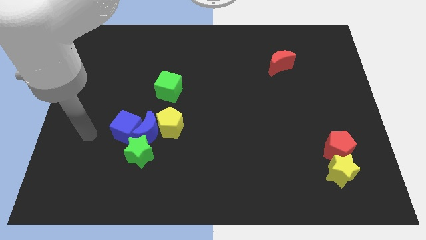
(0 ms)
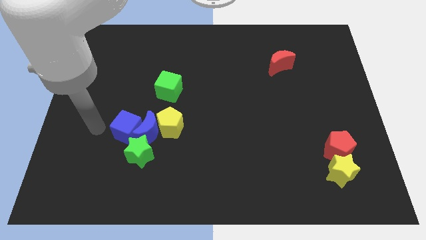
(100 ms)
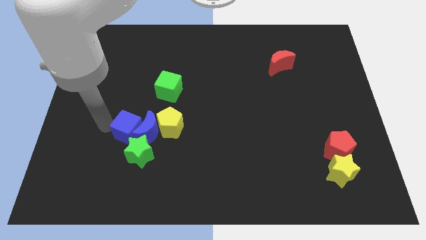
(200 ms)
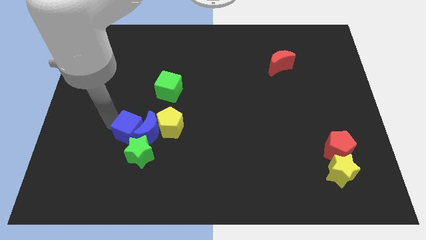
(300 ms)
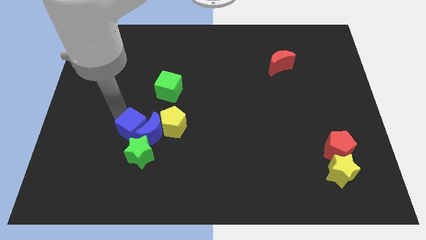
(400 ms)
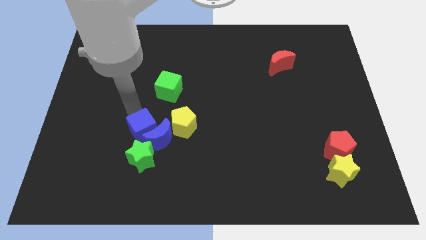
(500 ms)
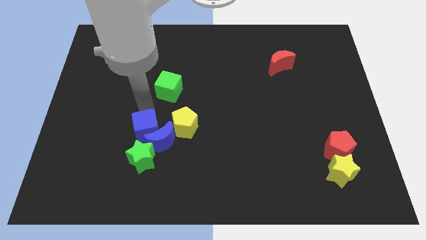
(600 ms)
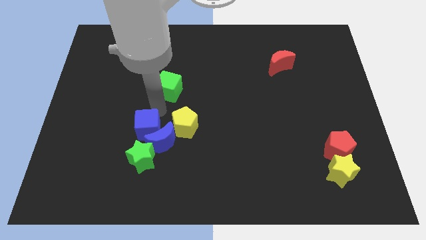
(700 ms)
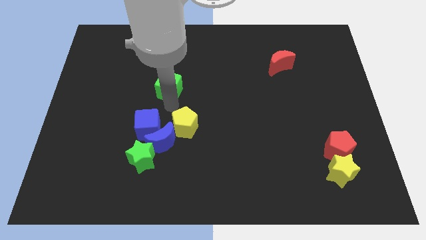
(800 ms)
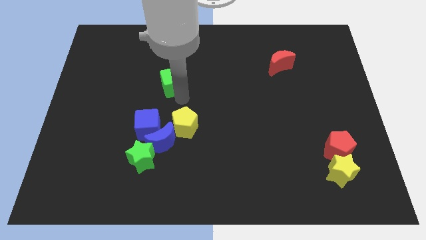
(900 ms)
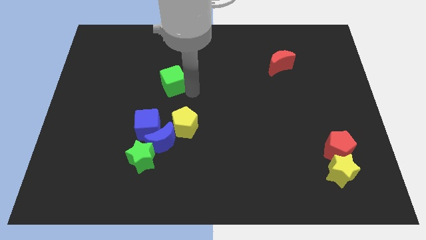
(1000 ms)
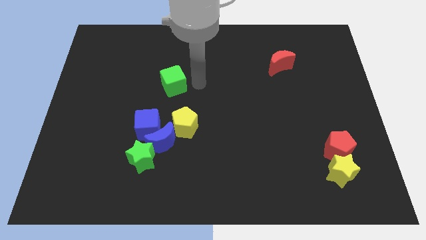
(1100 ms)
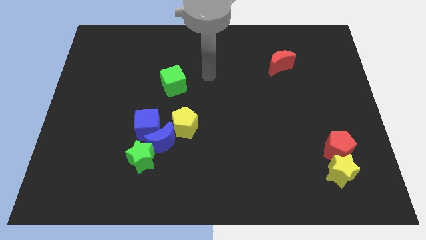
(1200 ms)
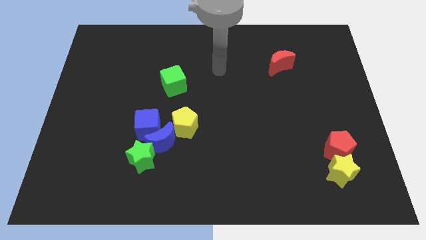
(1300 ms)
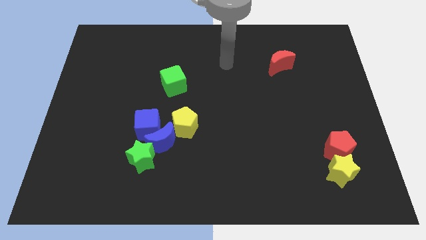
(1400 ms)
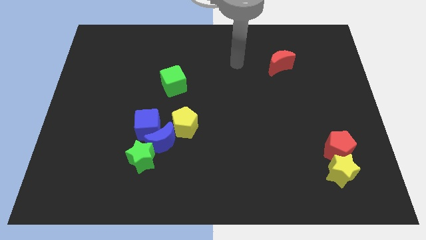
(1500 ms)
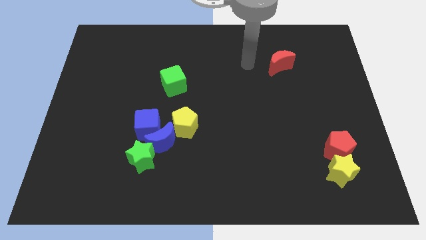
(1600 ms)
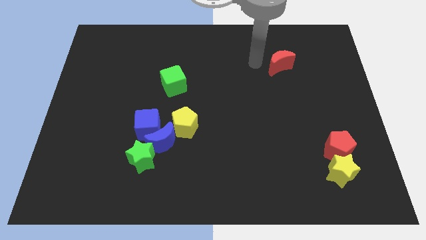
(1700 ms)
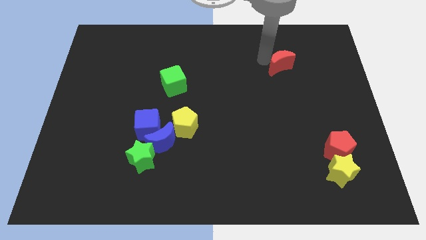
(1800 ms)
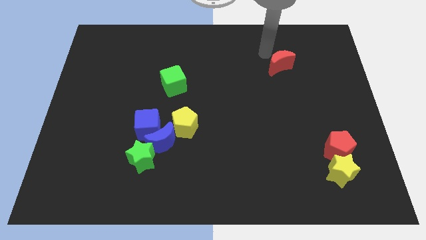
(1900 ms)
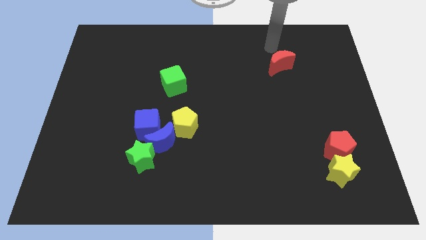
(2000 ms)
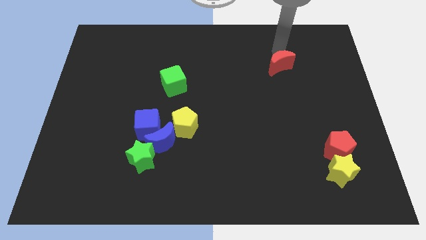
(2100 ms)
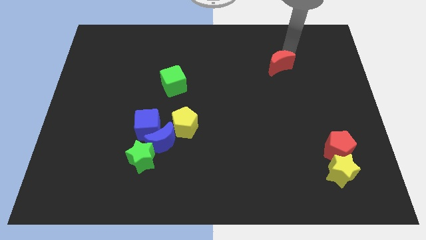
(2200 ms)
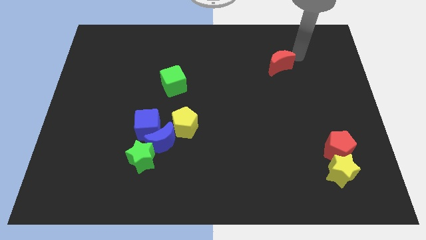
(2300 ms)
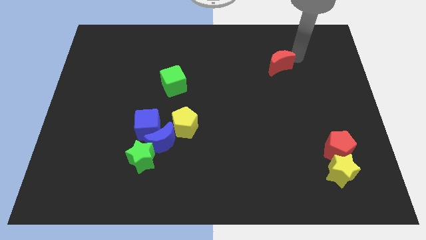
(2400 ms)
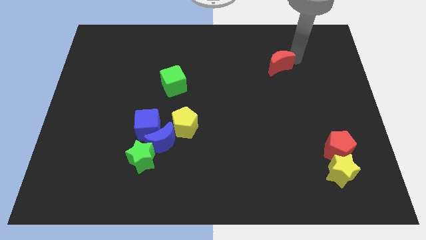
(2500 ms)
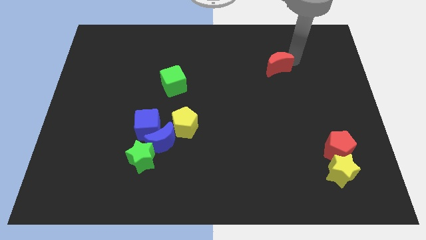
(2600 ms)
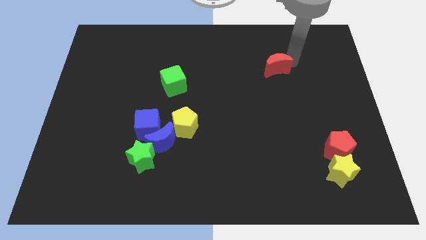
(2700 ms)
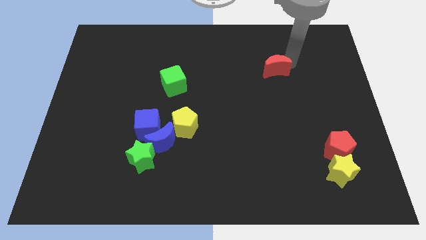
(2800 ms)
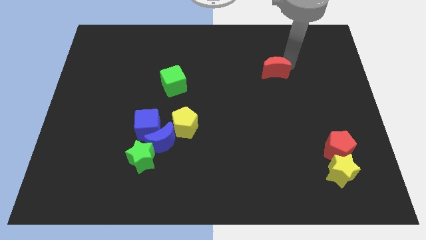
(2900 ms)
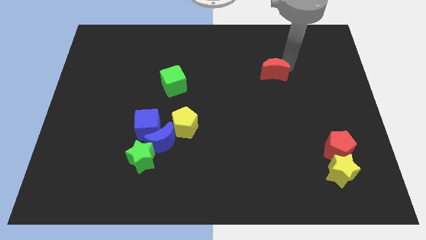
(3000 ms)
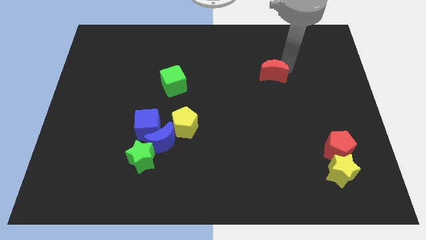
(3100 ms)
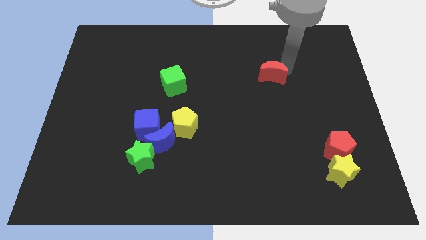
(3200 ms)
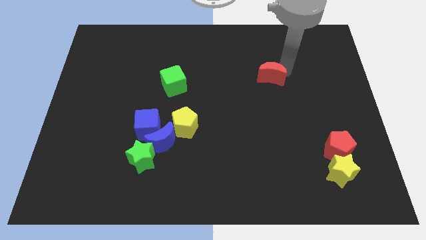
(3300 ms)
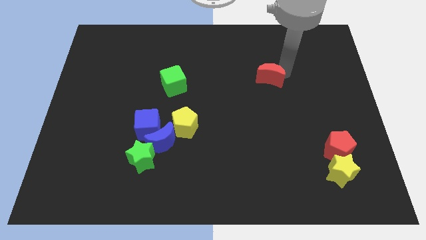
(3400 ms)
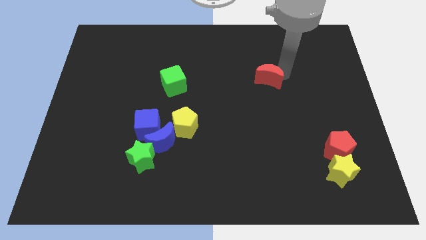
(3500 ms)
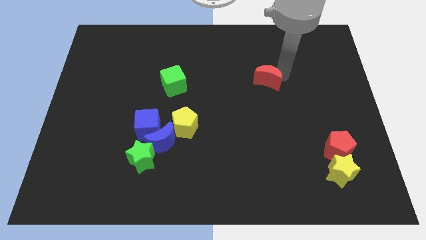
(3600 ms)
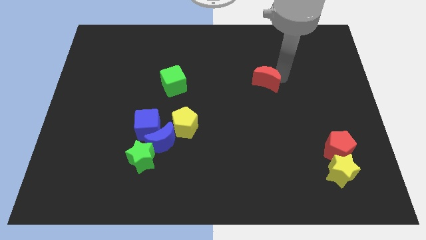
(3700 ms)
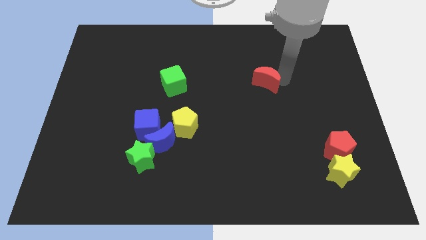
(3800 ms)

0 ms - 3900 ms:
slightly push the red moon downwards and to the left

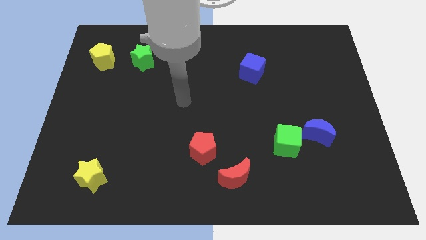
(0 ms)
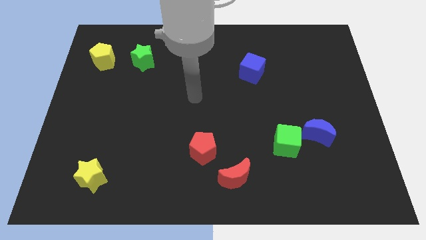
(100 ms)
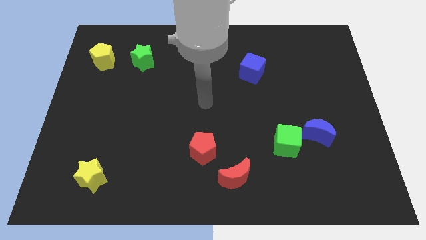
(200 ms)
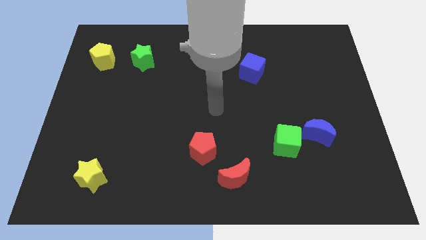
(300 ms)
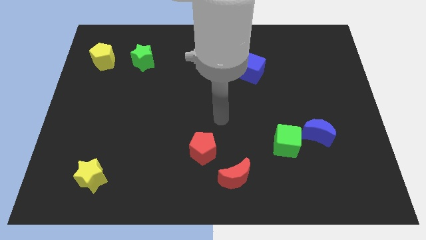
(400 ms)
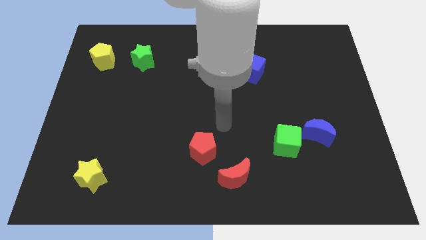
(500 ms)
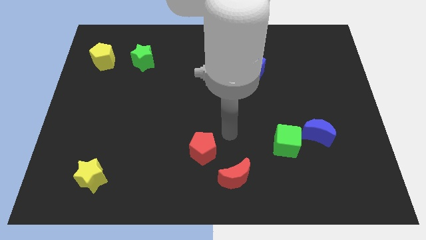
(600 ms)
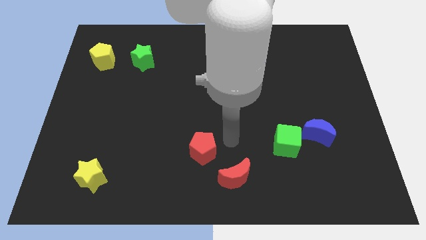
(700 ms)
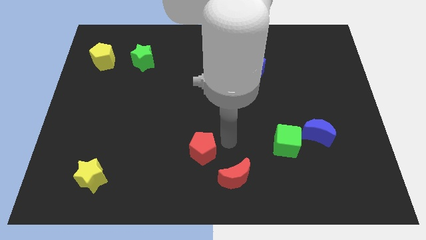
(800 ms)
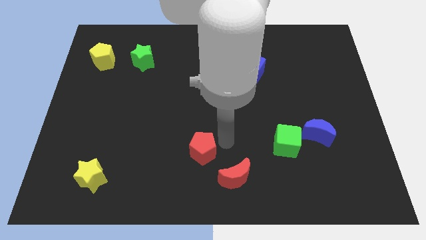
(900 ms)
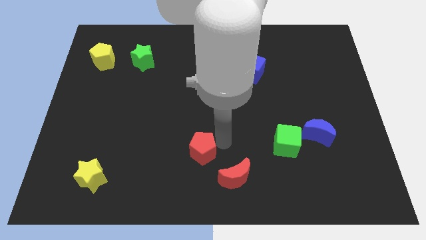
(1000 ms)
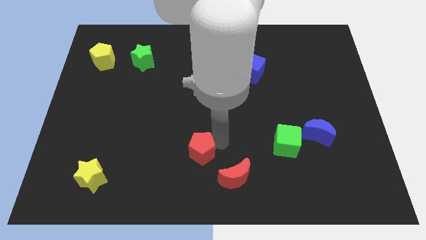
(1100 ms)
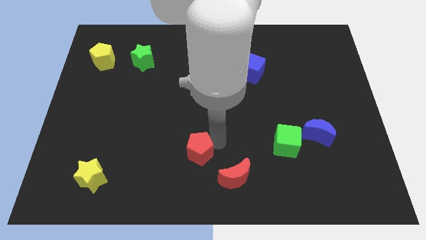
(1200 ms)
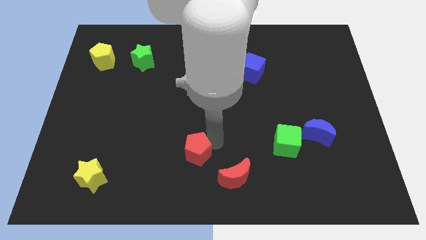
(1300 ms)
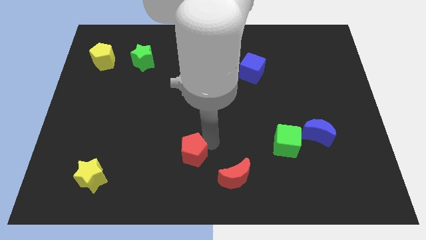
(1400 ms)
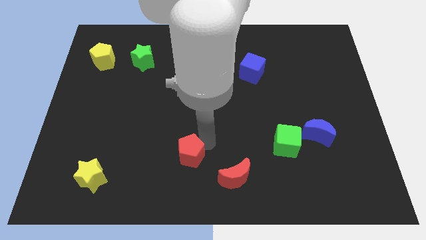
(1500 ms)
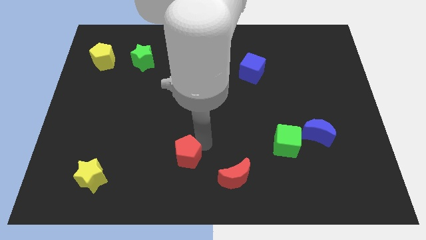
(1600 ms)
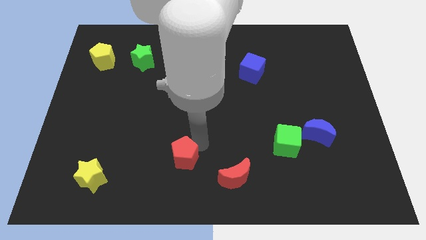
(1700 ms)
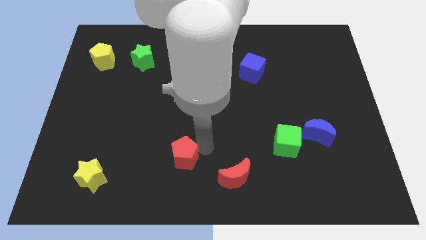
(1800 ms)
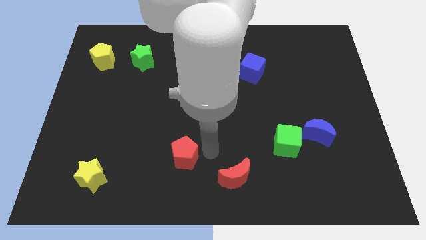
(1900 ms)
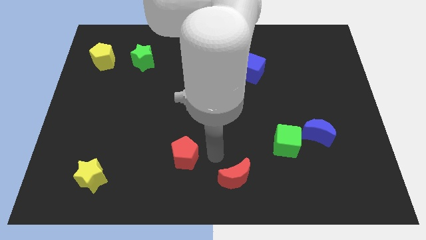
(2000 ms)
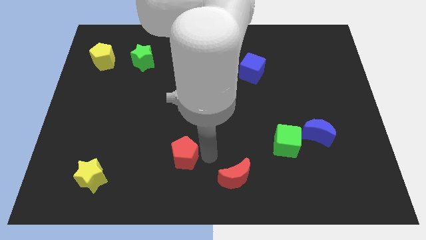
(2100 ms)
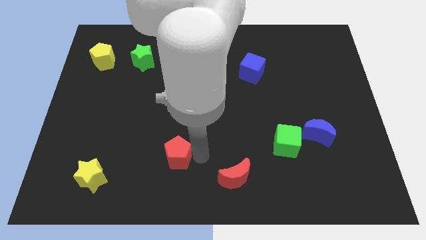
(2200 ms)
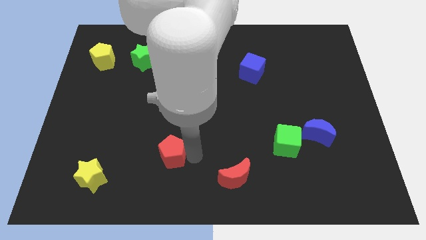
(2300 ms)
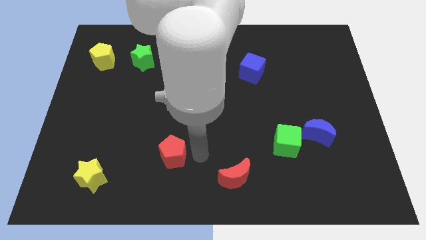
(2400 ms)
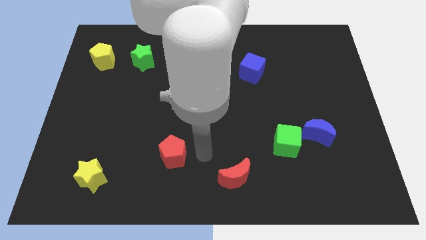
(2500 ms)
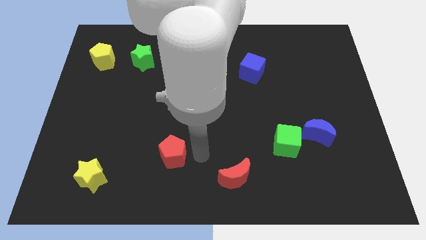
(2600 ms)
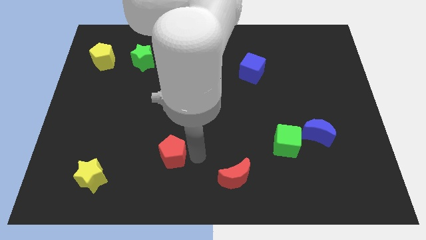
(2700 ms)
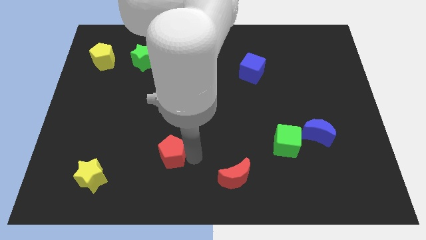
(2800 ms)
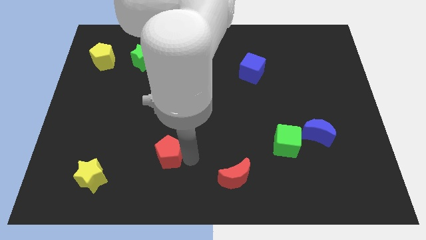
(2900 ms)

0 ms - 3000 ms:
move the red pentagon a bit left

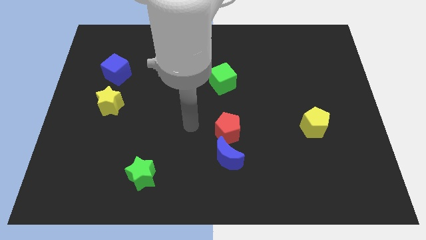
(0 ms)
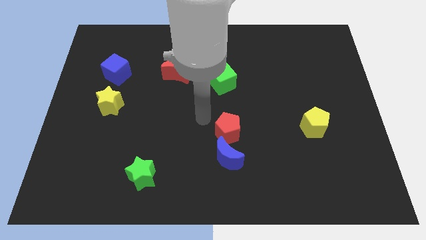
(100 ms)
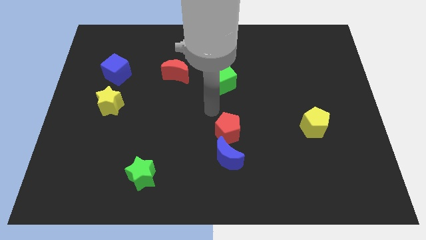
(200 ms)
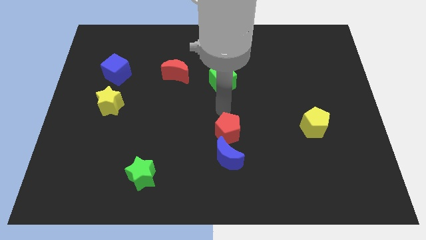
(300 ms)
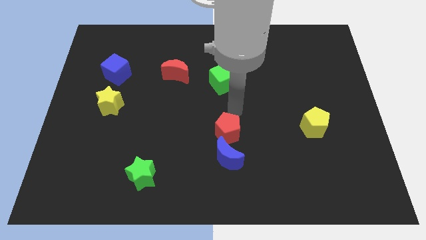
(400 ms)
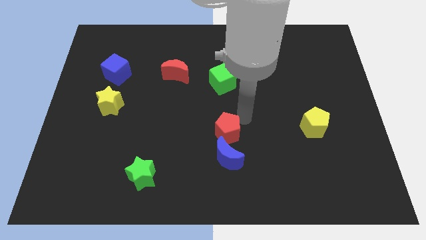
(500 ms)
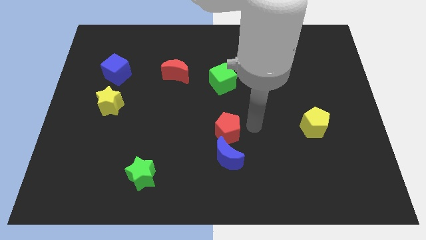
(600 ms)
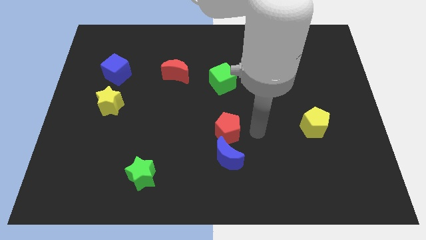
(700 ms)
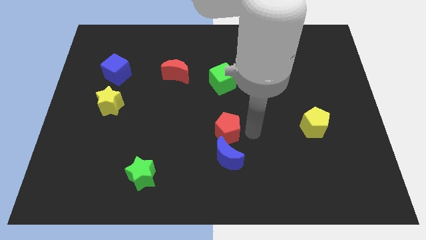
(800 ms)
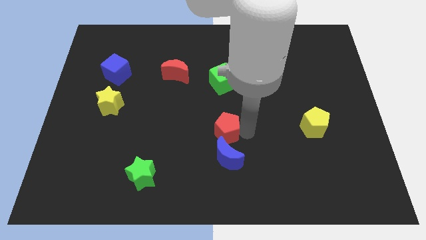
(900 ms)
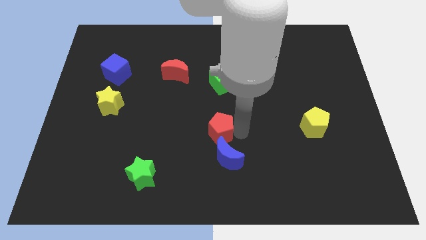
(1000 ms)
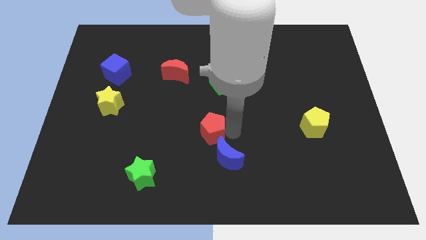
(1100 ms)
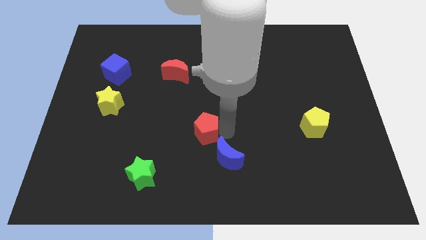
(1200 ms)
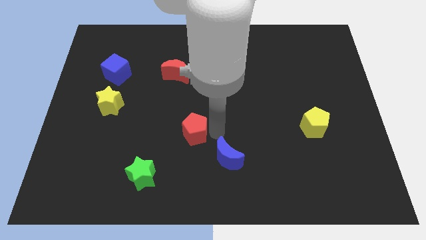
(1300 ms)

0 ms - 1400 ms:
move the red pentagon somewhat to the left

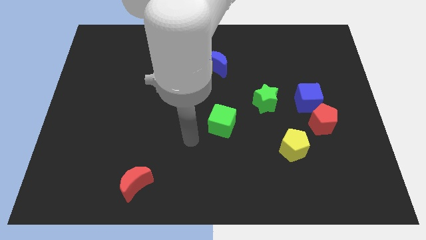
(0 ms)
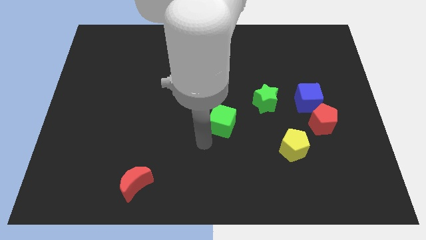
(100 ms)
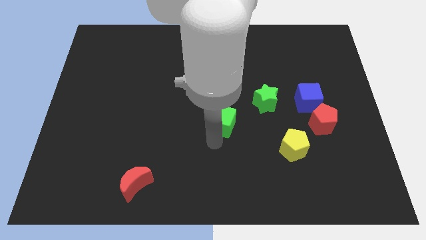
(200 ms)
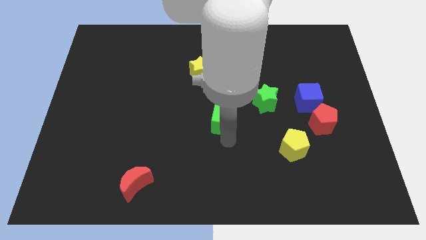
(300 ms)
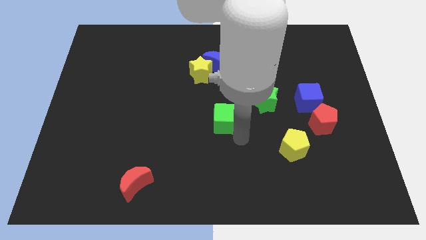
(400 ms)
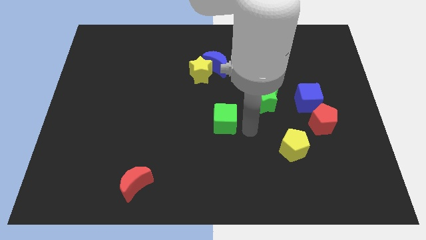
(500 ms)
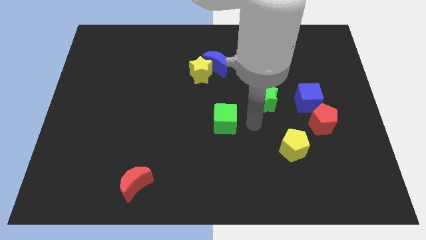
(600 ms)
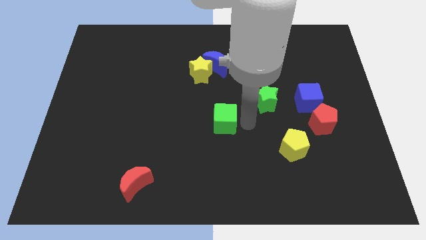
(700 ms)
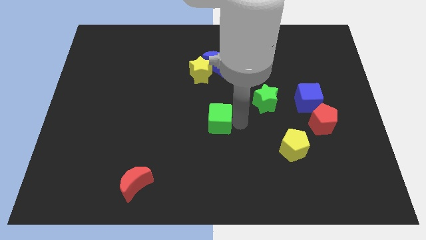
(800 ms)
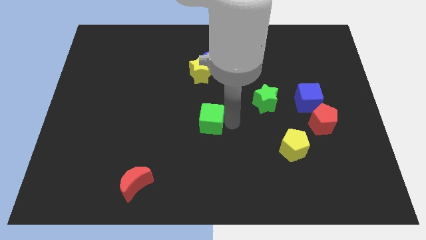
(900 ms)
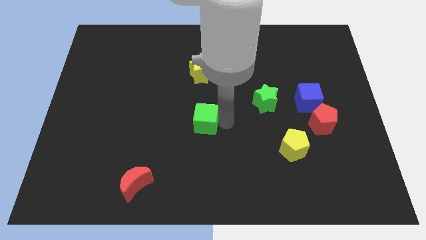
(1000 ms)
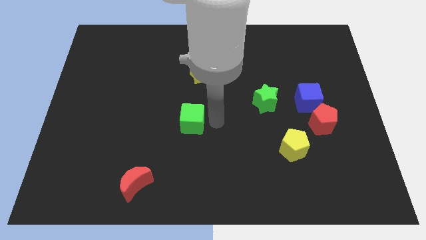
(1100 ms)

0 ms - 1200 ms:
slightly move the green cube to the left
